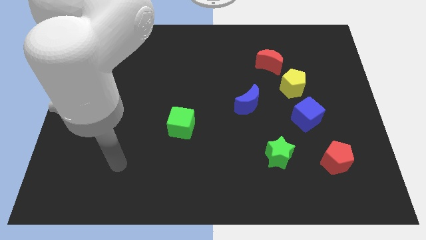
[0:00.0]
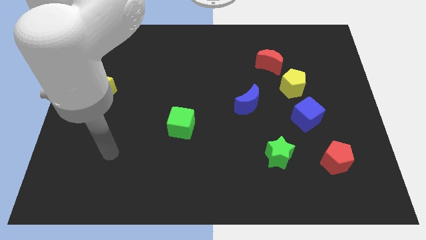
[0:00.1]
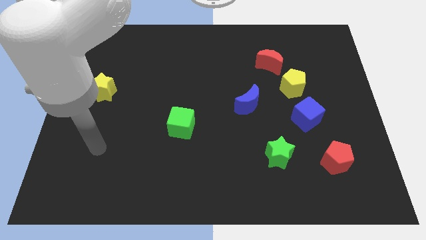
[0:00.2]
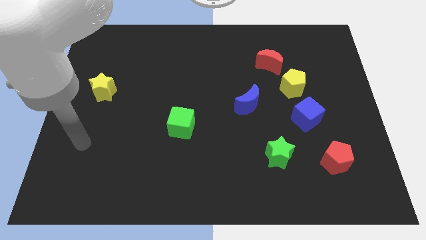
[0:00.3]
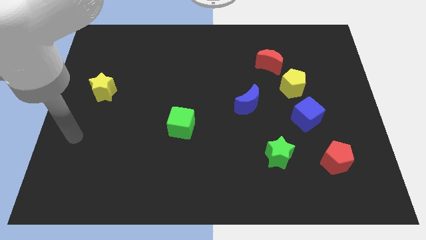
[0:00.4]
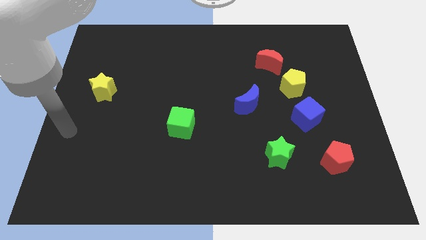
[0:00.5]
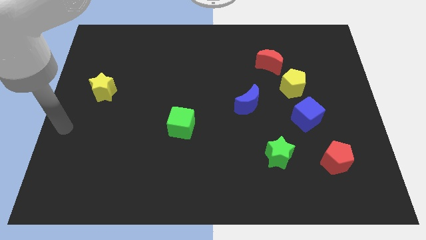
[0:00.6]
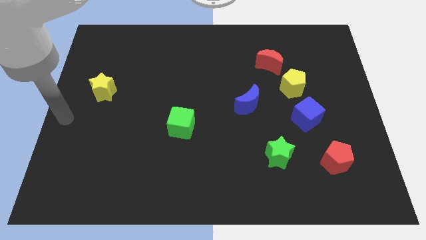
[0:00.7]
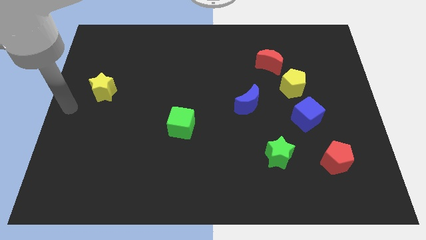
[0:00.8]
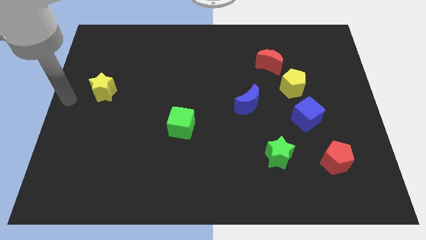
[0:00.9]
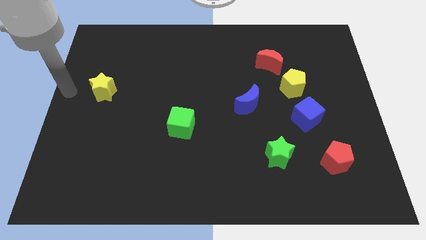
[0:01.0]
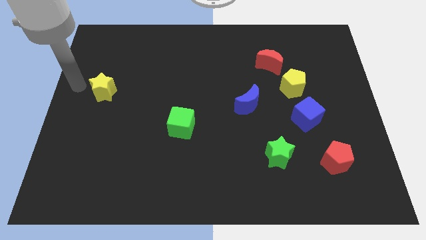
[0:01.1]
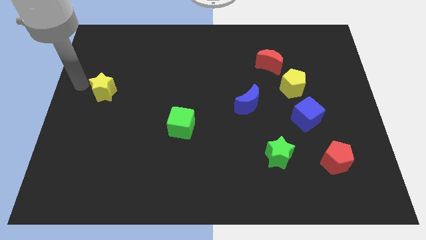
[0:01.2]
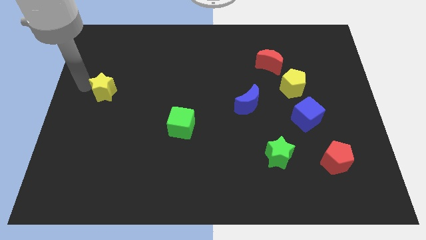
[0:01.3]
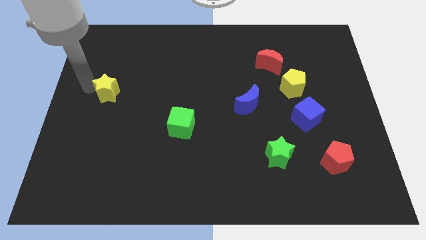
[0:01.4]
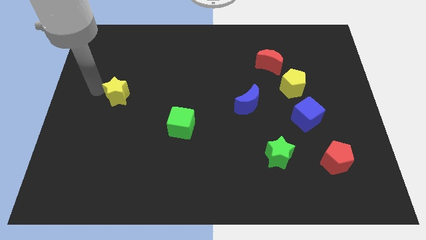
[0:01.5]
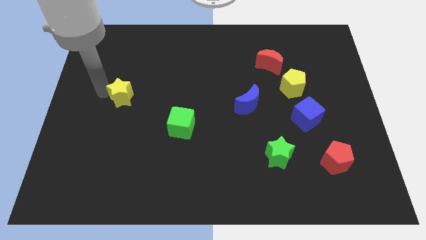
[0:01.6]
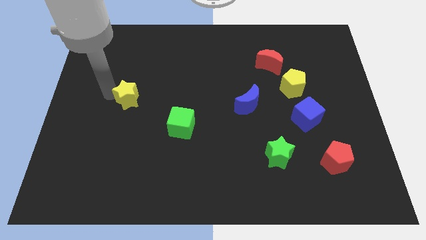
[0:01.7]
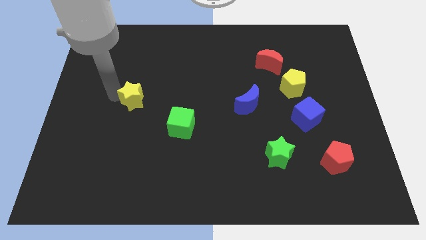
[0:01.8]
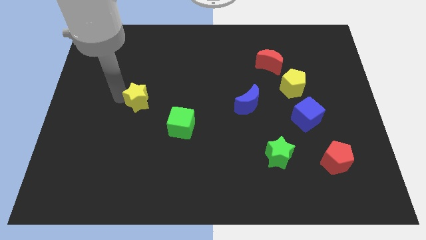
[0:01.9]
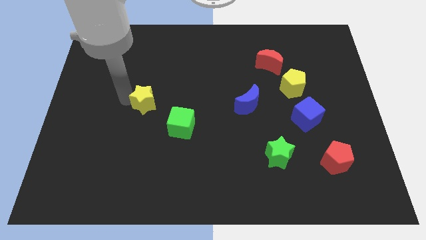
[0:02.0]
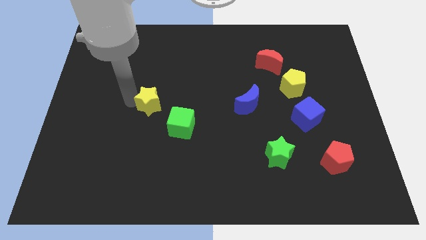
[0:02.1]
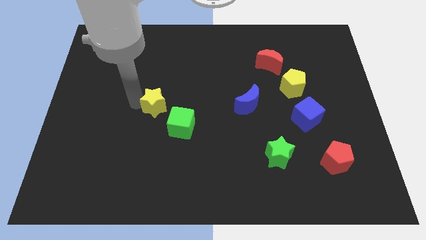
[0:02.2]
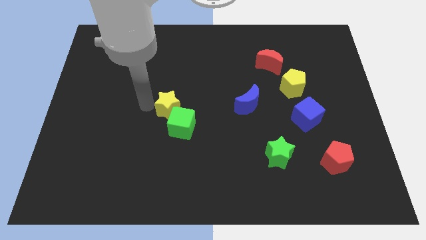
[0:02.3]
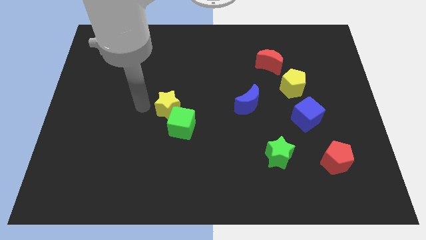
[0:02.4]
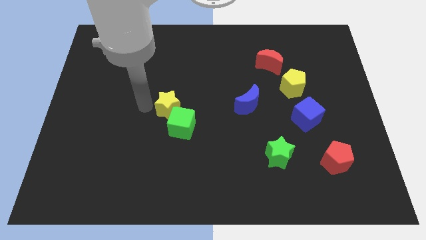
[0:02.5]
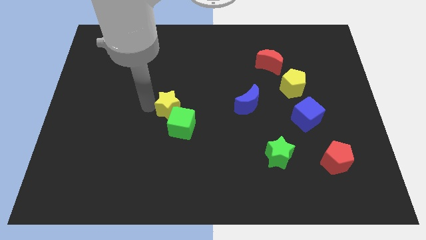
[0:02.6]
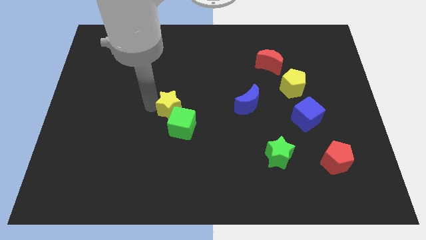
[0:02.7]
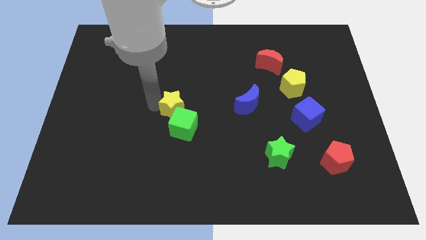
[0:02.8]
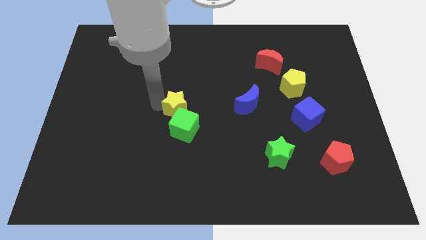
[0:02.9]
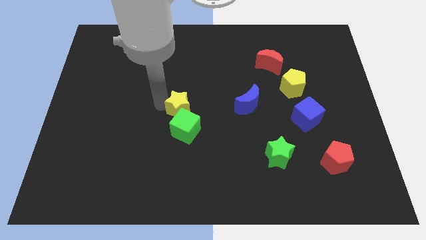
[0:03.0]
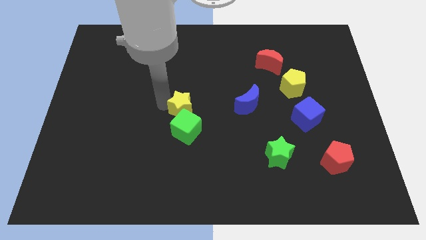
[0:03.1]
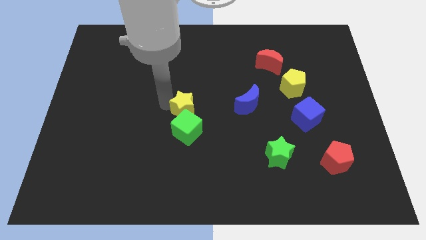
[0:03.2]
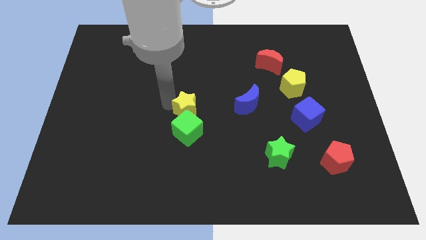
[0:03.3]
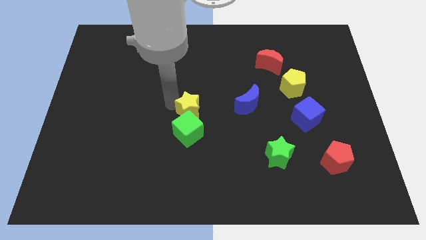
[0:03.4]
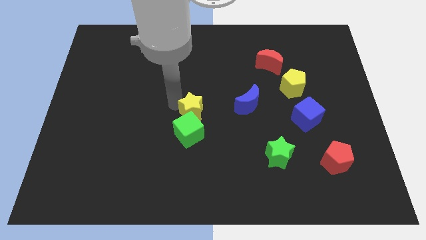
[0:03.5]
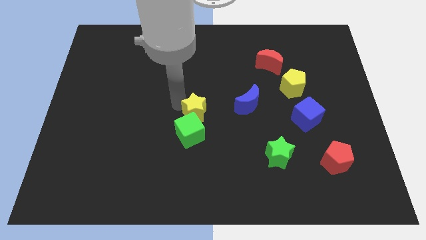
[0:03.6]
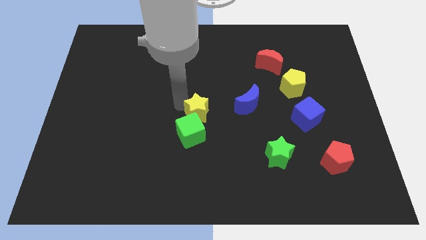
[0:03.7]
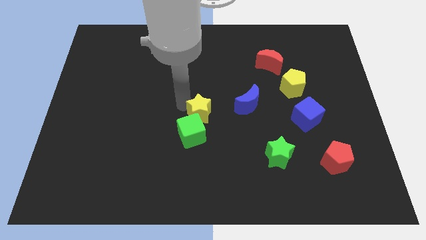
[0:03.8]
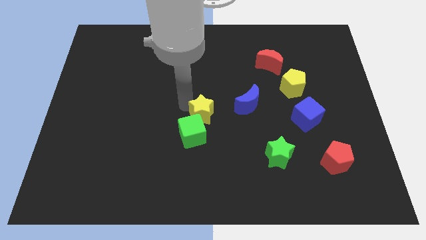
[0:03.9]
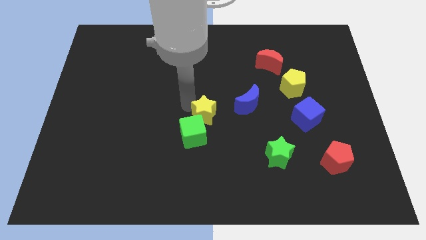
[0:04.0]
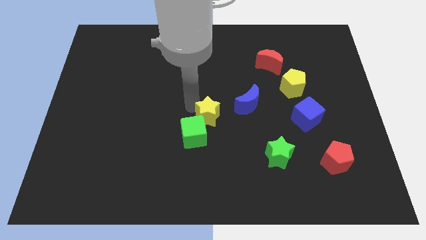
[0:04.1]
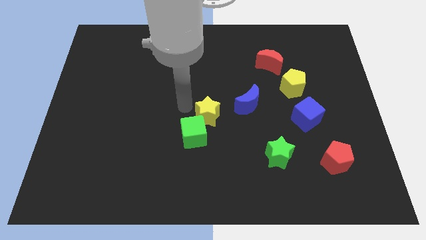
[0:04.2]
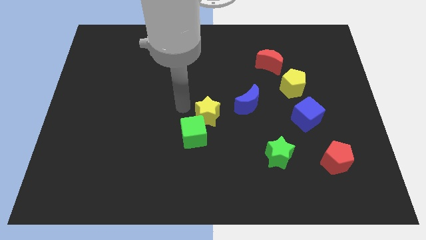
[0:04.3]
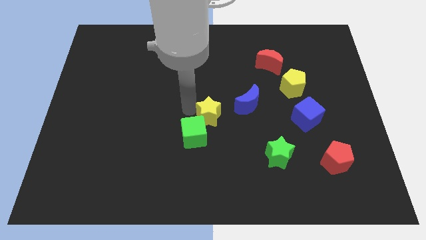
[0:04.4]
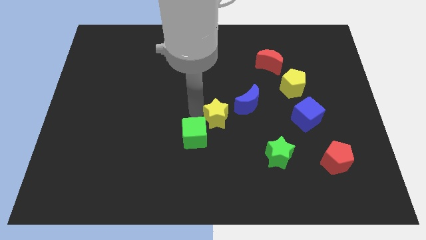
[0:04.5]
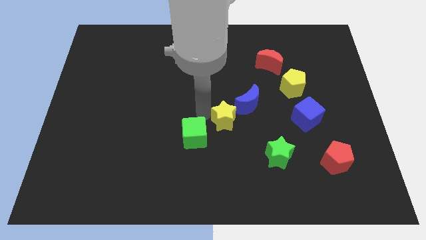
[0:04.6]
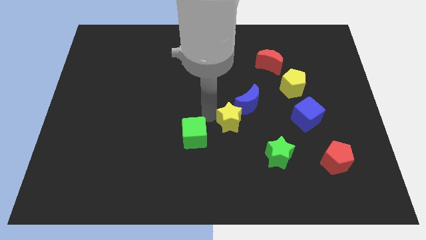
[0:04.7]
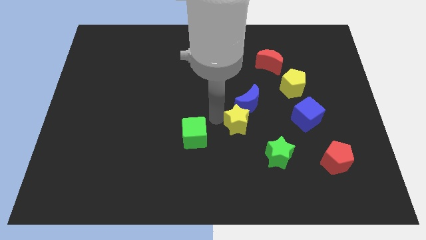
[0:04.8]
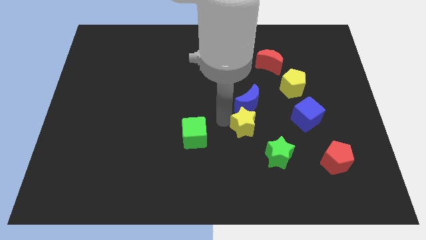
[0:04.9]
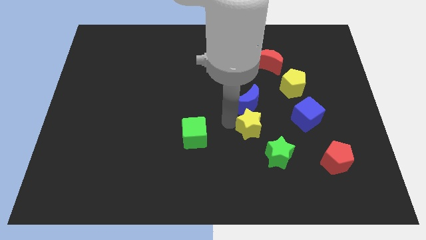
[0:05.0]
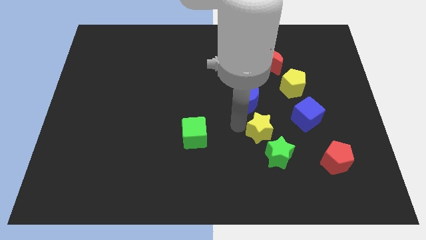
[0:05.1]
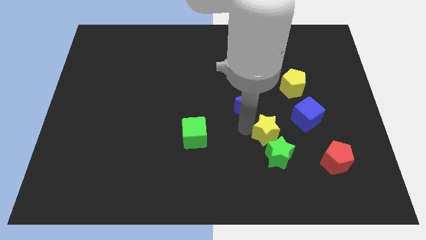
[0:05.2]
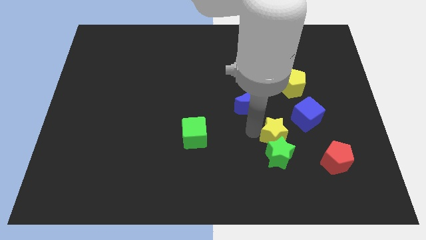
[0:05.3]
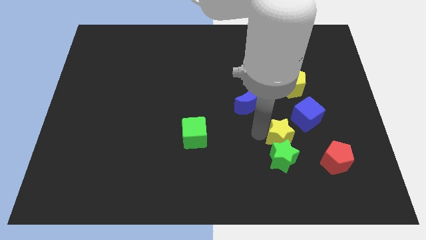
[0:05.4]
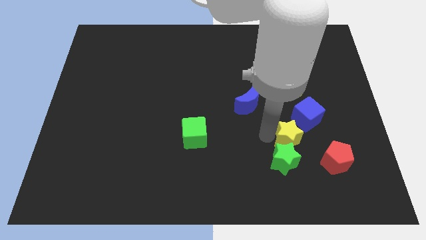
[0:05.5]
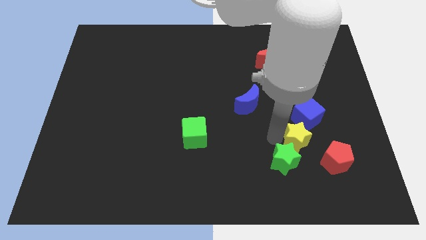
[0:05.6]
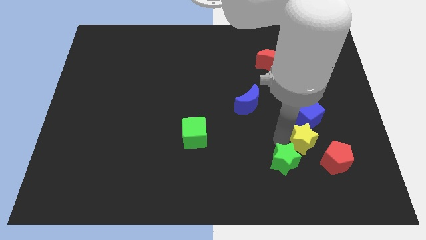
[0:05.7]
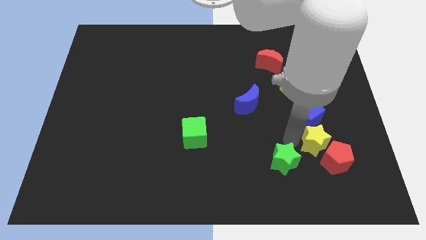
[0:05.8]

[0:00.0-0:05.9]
push the yellow star to the red pentagon

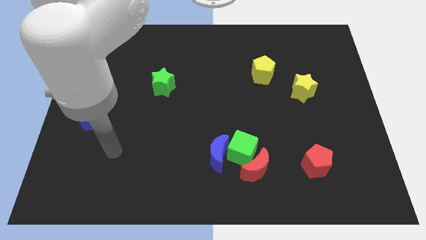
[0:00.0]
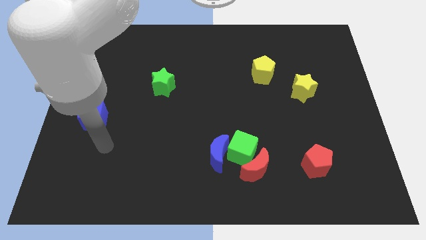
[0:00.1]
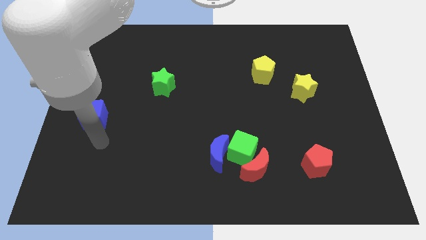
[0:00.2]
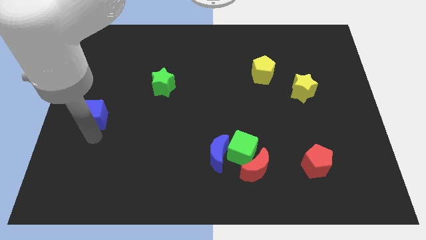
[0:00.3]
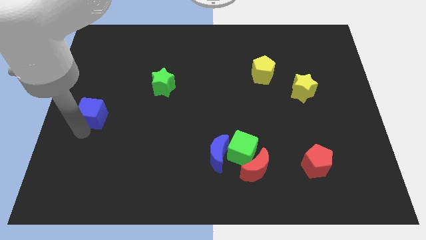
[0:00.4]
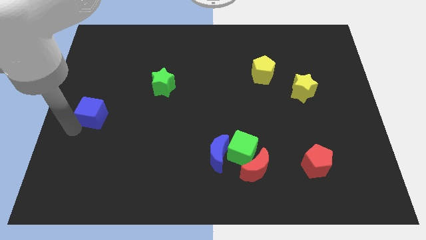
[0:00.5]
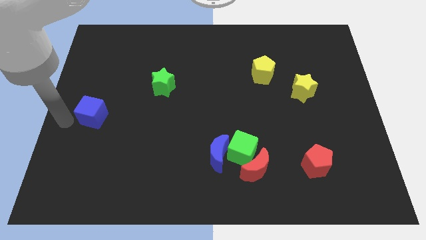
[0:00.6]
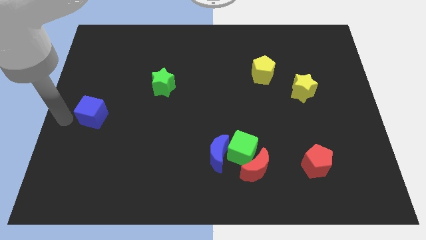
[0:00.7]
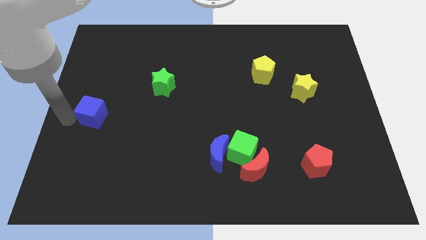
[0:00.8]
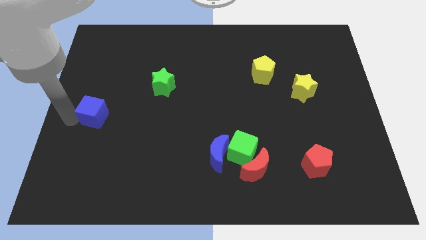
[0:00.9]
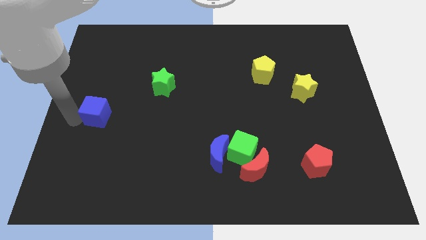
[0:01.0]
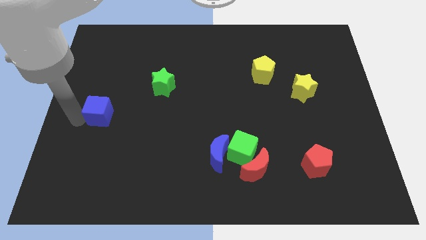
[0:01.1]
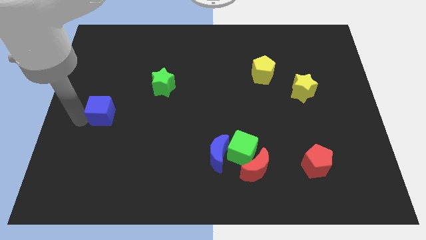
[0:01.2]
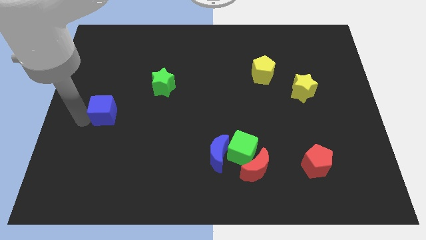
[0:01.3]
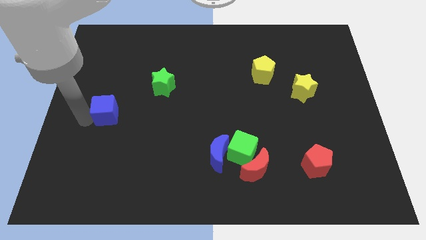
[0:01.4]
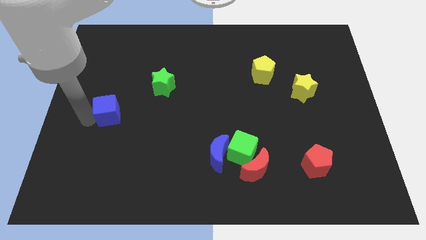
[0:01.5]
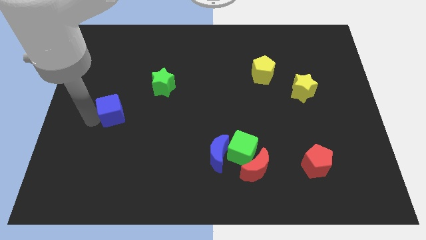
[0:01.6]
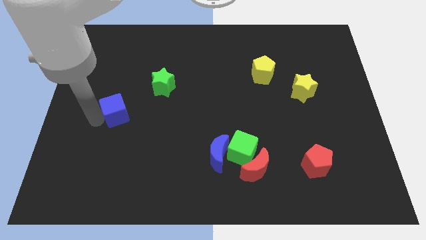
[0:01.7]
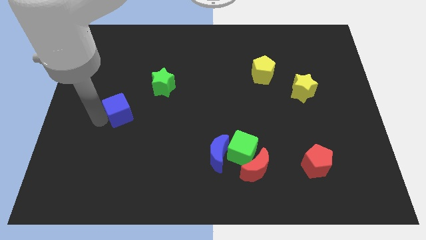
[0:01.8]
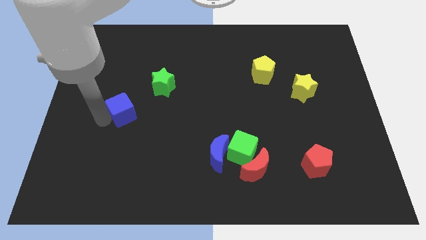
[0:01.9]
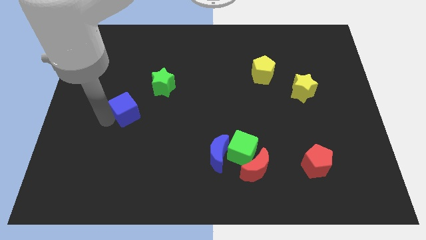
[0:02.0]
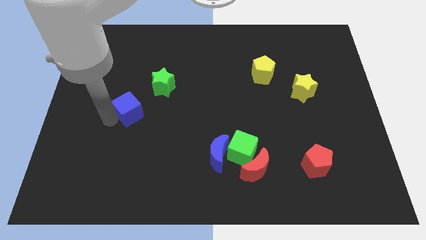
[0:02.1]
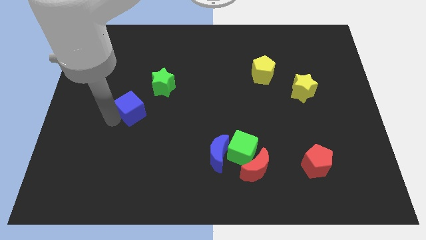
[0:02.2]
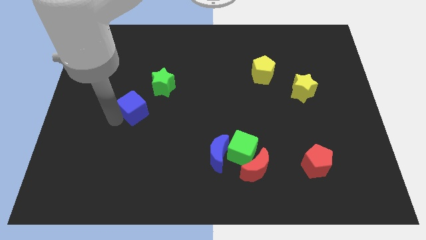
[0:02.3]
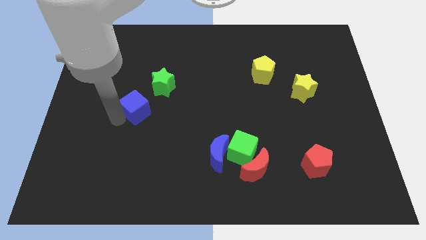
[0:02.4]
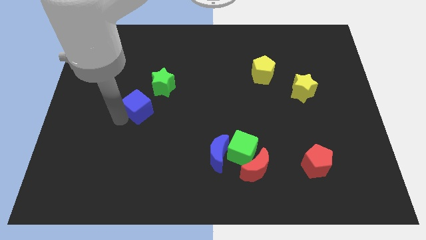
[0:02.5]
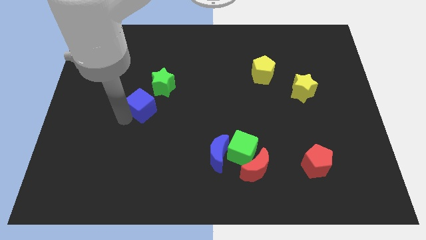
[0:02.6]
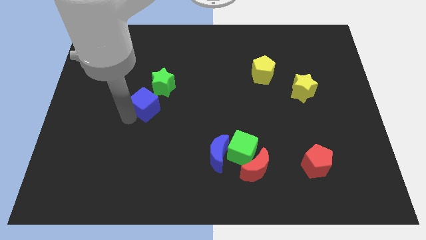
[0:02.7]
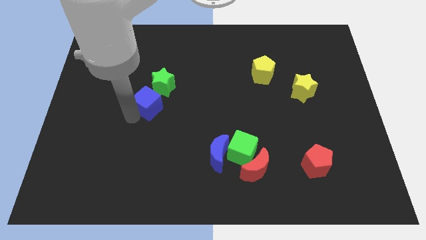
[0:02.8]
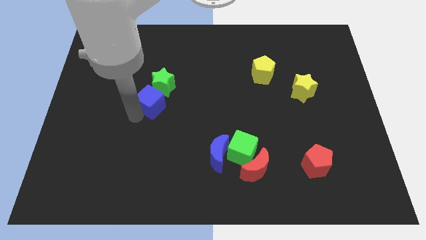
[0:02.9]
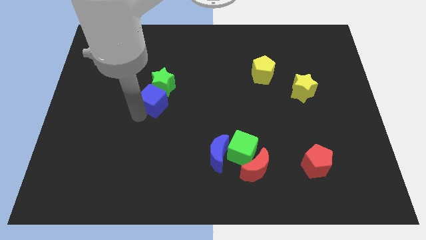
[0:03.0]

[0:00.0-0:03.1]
slide the blue cube to the green star
